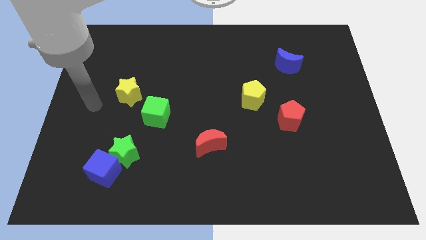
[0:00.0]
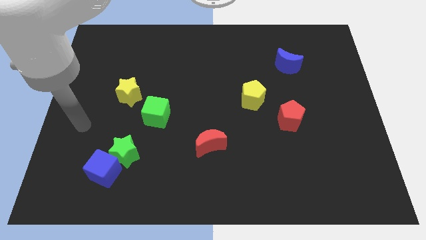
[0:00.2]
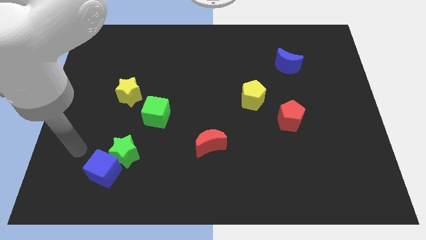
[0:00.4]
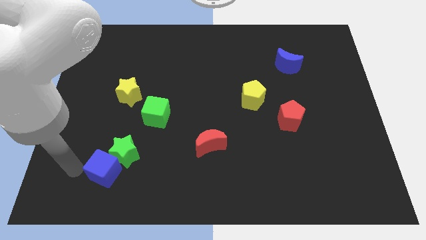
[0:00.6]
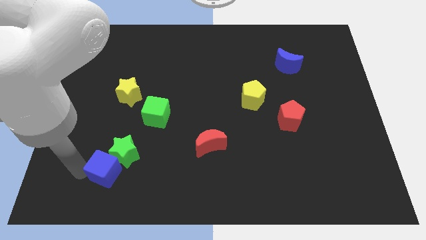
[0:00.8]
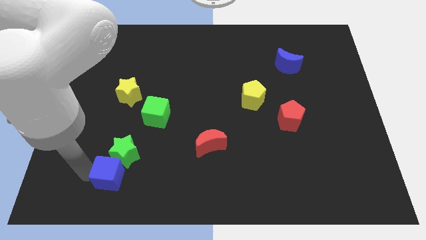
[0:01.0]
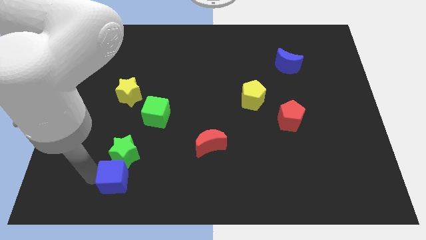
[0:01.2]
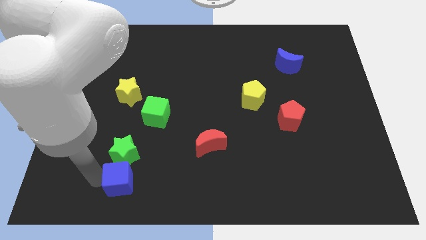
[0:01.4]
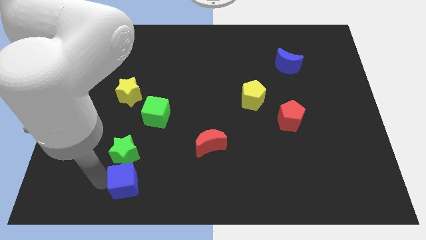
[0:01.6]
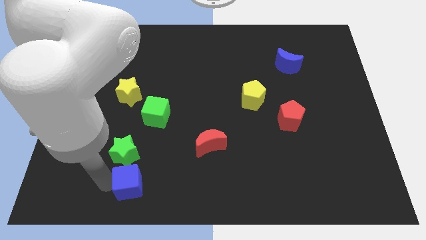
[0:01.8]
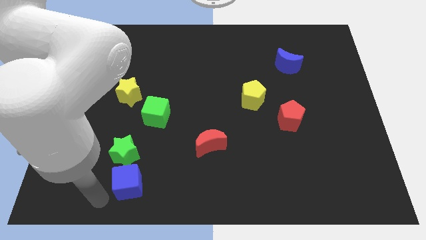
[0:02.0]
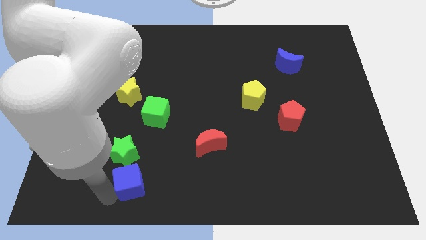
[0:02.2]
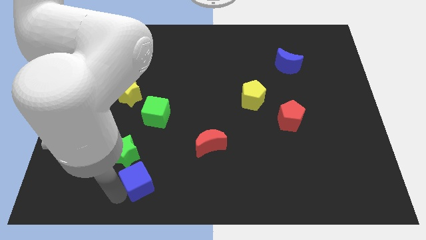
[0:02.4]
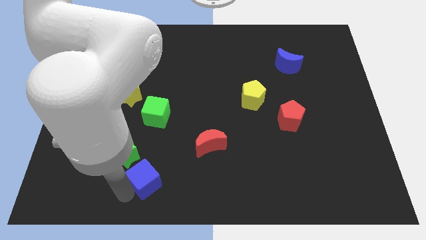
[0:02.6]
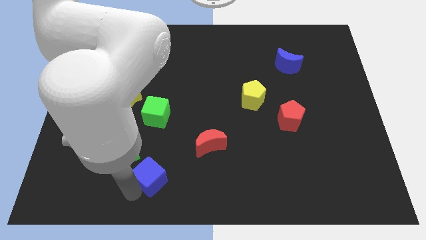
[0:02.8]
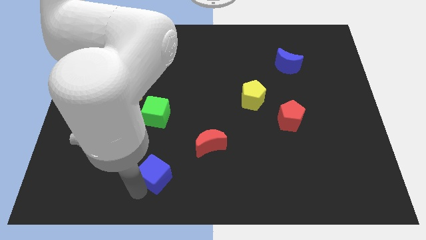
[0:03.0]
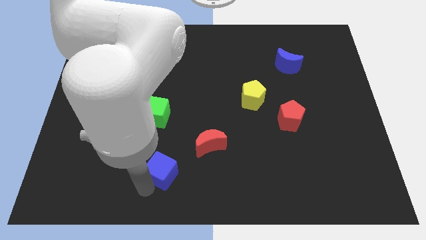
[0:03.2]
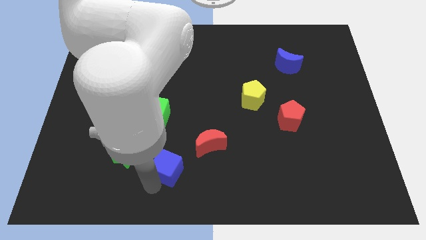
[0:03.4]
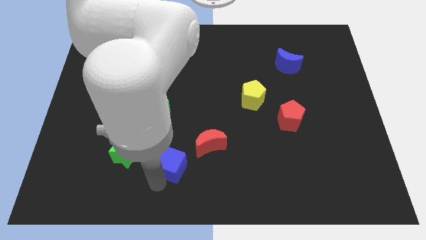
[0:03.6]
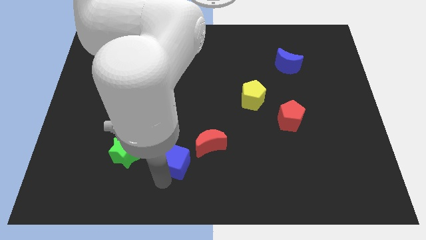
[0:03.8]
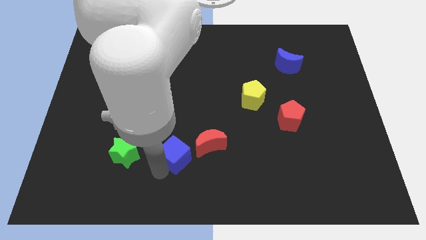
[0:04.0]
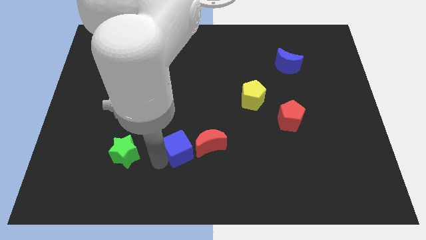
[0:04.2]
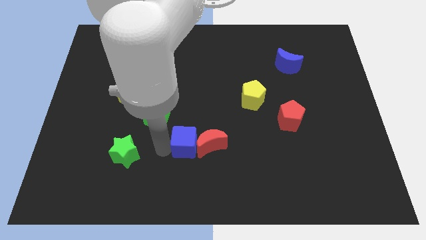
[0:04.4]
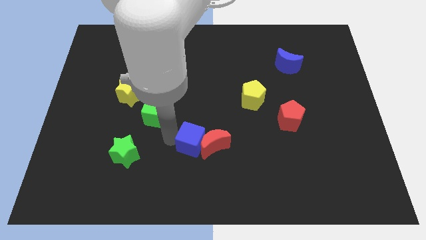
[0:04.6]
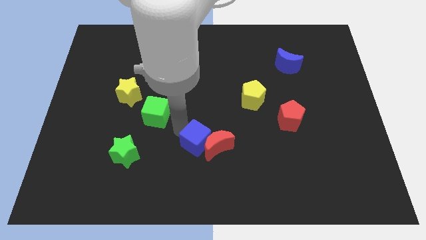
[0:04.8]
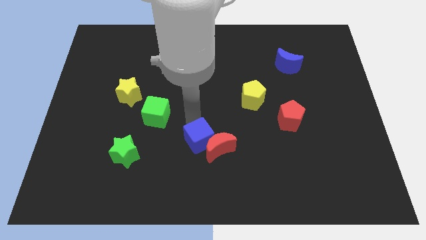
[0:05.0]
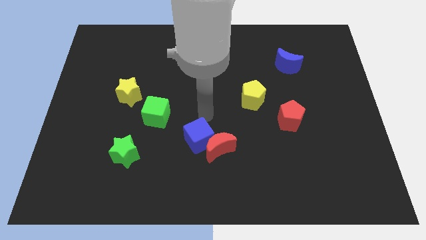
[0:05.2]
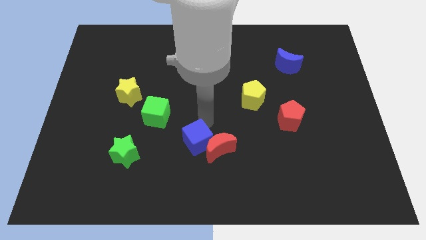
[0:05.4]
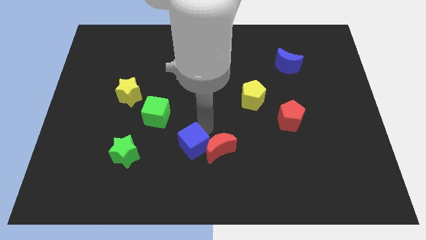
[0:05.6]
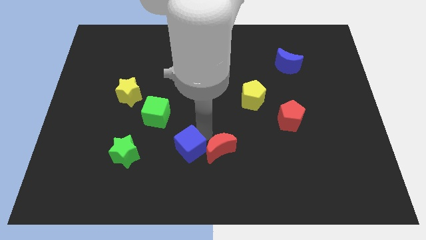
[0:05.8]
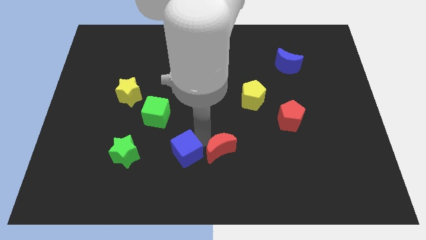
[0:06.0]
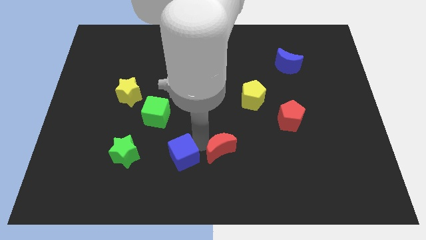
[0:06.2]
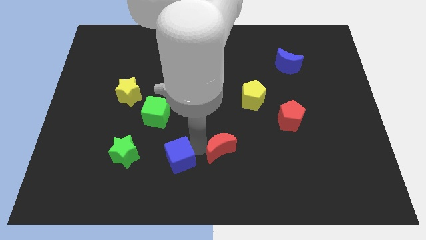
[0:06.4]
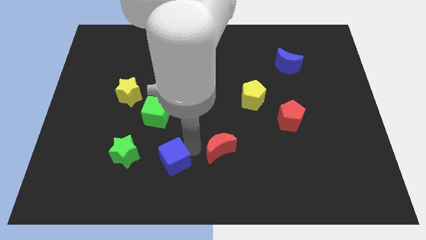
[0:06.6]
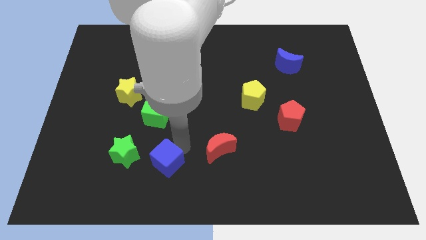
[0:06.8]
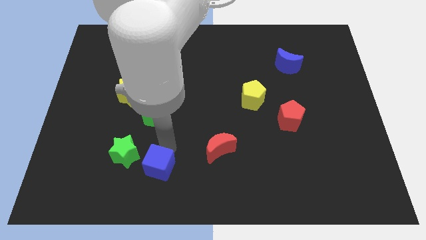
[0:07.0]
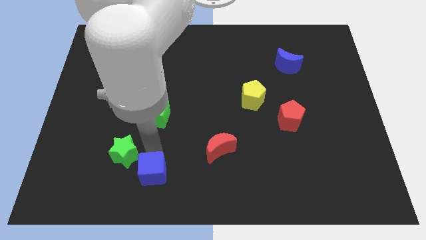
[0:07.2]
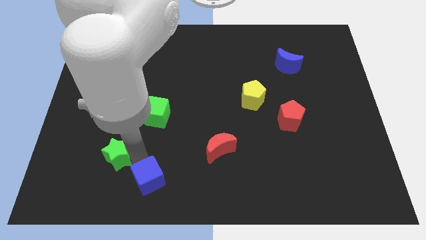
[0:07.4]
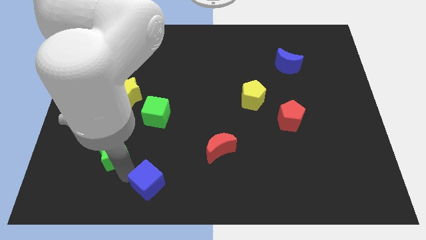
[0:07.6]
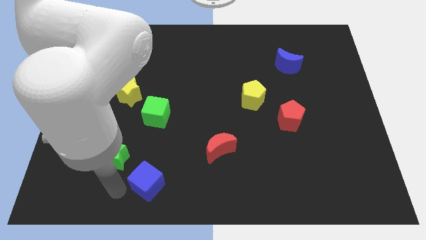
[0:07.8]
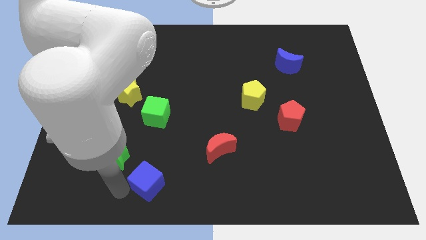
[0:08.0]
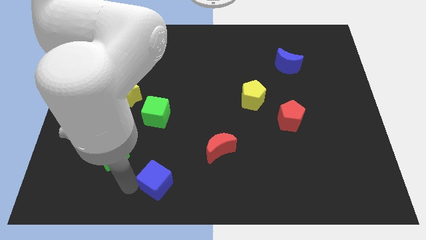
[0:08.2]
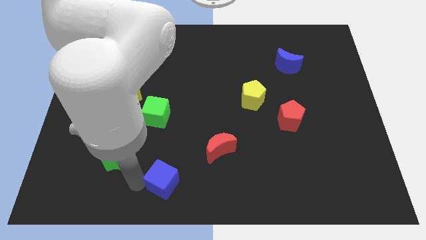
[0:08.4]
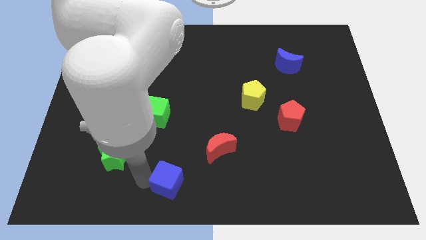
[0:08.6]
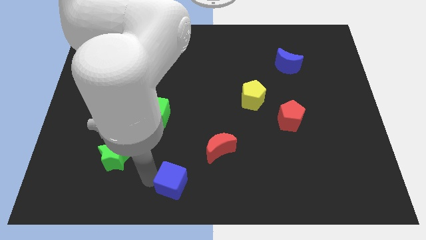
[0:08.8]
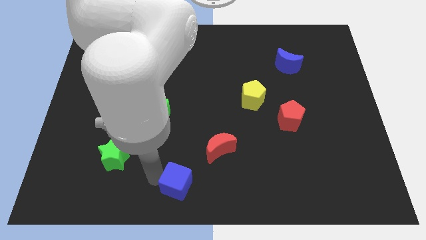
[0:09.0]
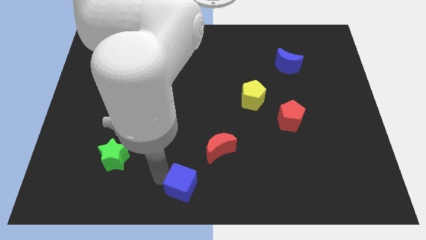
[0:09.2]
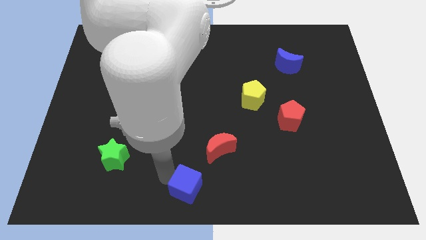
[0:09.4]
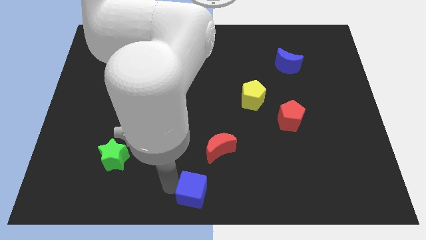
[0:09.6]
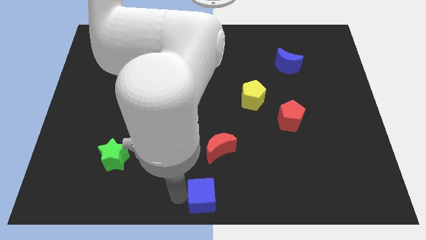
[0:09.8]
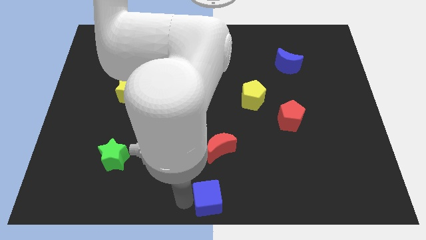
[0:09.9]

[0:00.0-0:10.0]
push the blue cube to the right

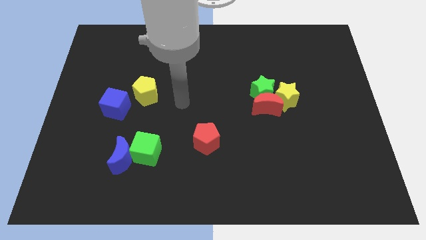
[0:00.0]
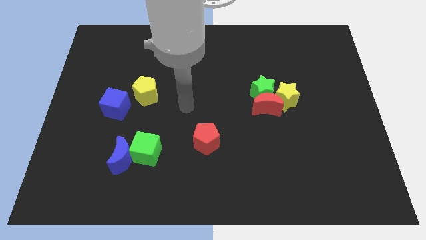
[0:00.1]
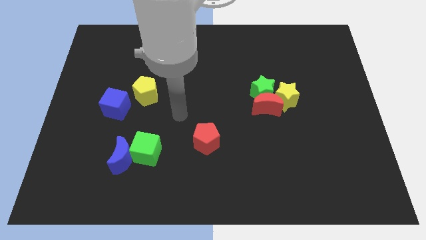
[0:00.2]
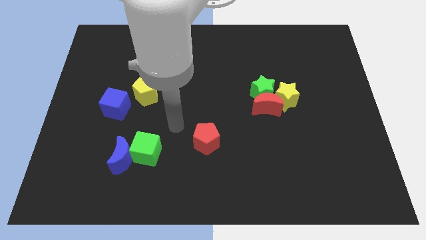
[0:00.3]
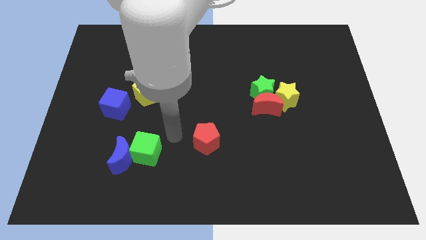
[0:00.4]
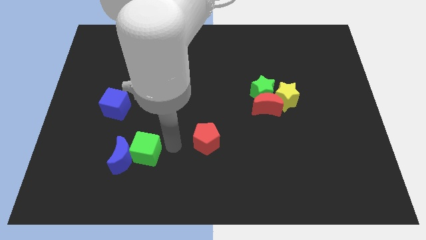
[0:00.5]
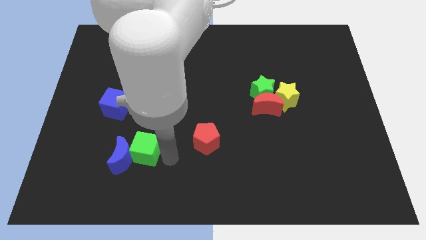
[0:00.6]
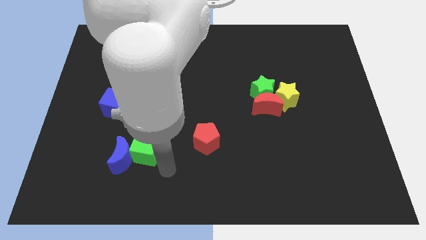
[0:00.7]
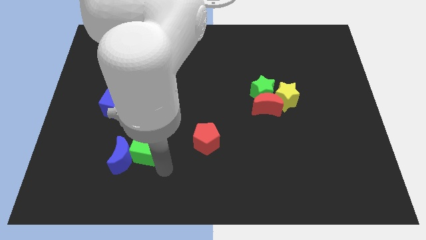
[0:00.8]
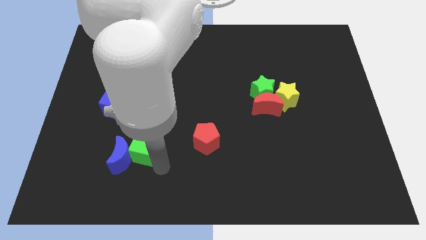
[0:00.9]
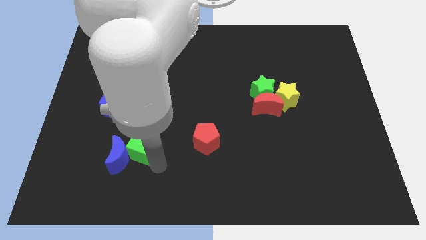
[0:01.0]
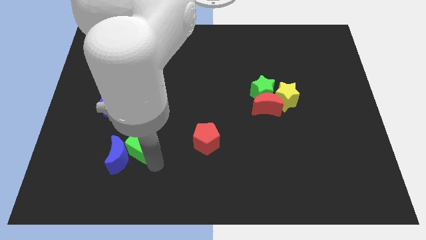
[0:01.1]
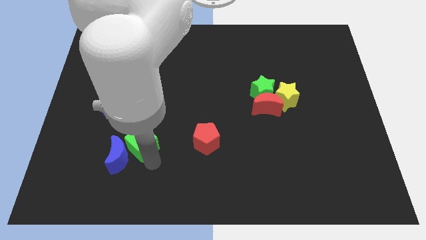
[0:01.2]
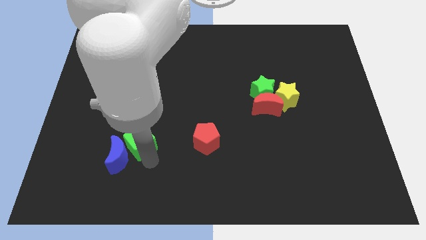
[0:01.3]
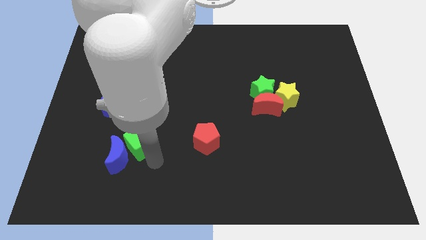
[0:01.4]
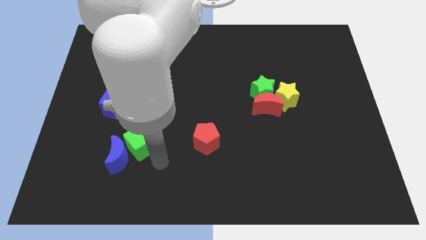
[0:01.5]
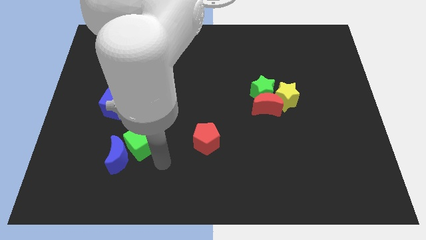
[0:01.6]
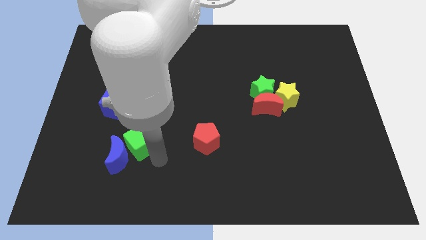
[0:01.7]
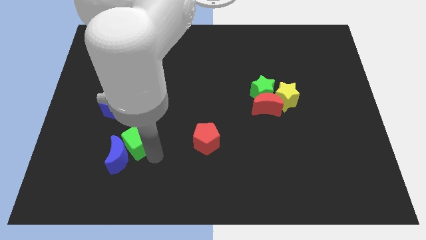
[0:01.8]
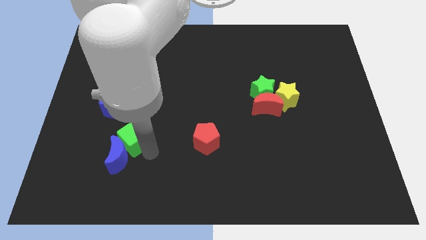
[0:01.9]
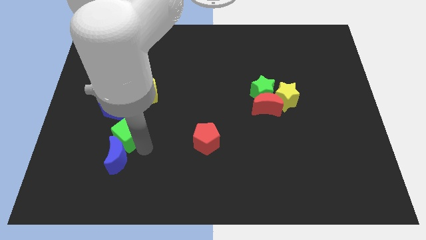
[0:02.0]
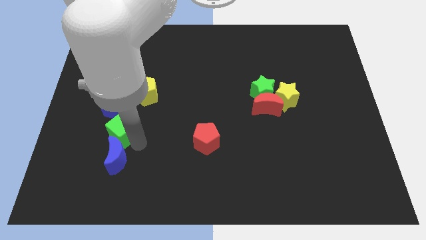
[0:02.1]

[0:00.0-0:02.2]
move the green cube up and to the left slightly

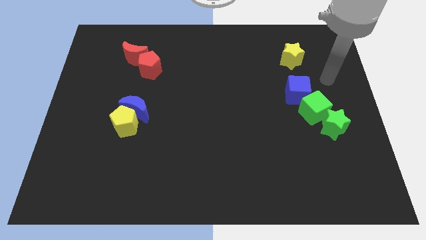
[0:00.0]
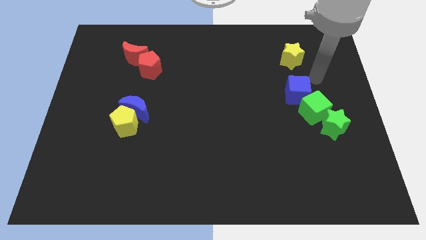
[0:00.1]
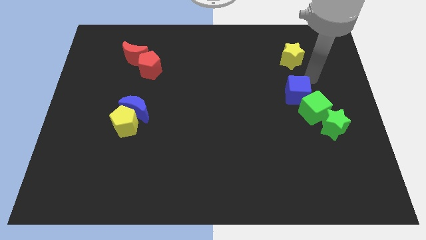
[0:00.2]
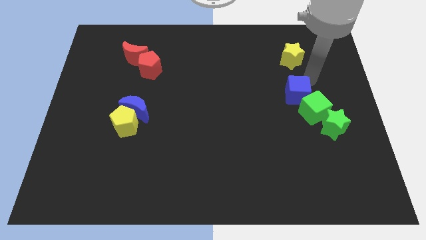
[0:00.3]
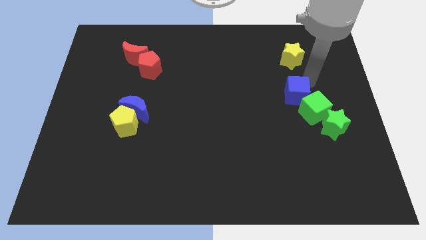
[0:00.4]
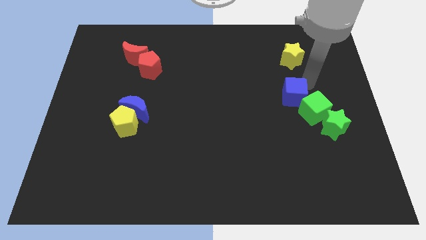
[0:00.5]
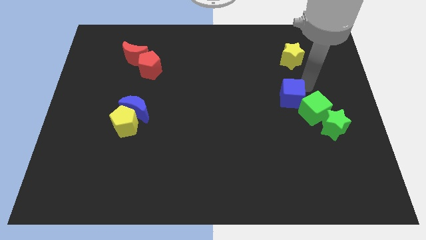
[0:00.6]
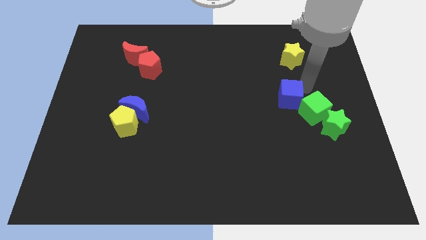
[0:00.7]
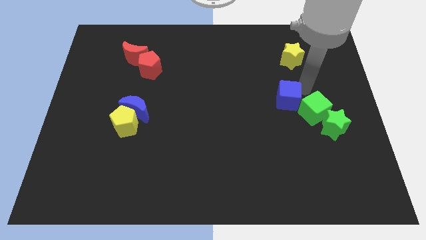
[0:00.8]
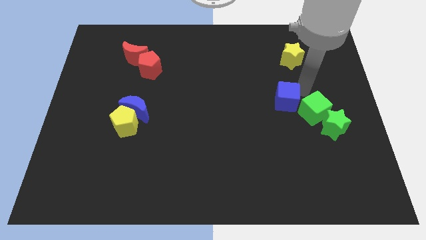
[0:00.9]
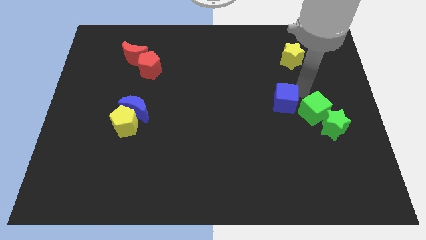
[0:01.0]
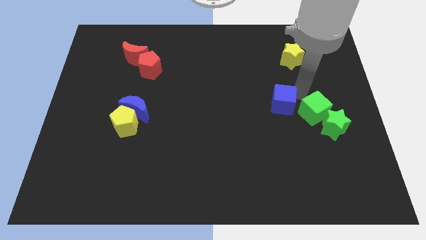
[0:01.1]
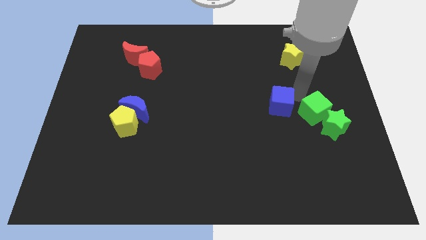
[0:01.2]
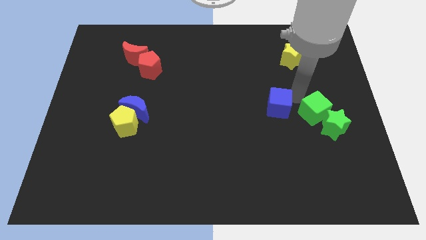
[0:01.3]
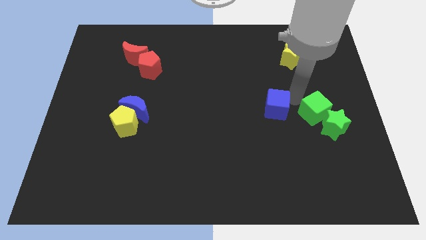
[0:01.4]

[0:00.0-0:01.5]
slightly slide the blue cube down and then to the left
